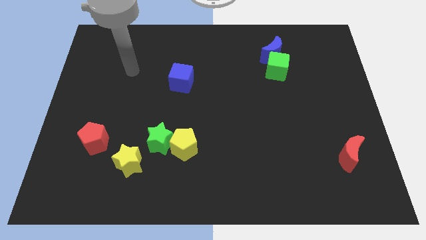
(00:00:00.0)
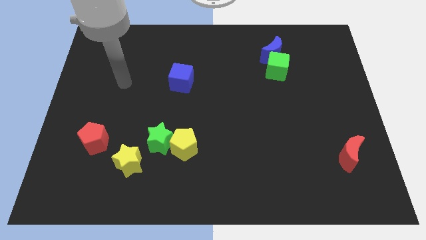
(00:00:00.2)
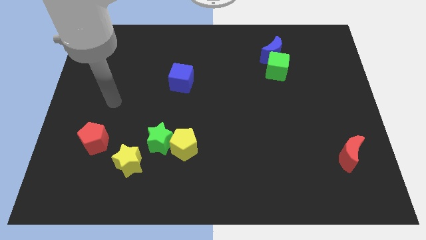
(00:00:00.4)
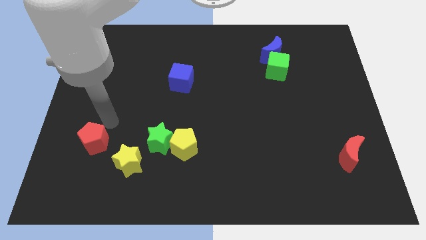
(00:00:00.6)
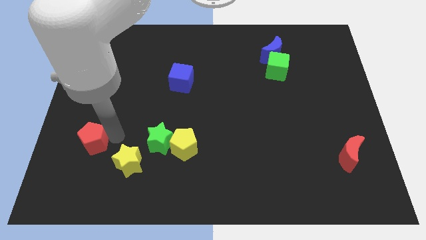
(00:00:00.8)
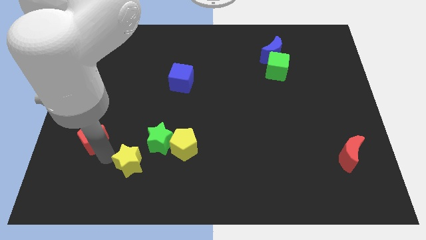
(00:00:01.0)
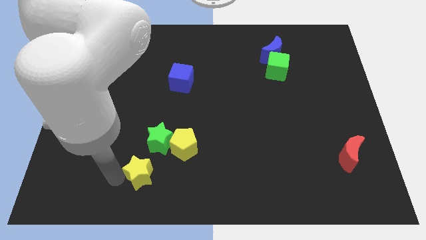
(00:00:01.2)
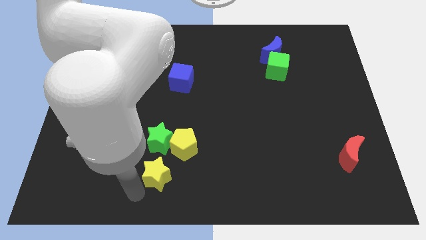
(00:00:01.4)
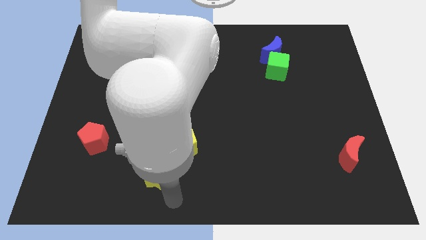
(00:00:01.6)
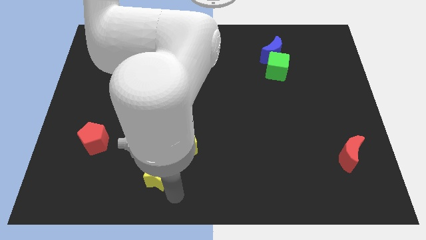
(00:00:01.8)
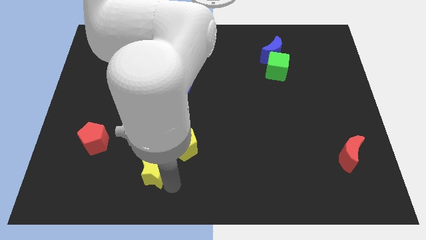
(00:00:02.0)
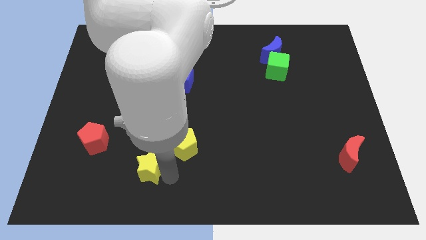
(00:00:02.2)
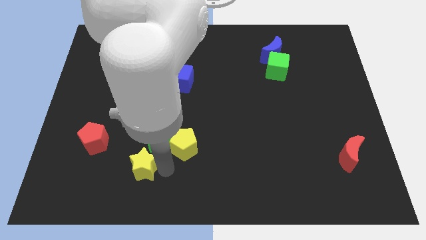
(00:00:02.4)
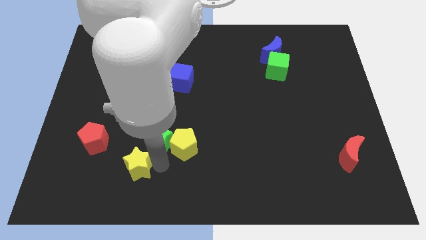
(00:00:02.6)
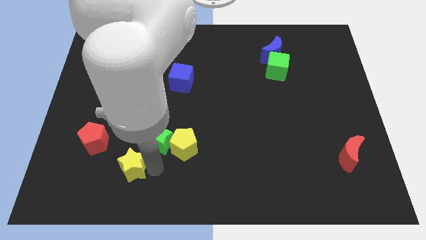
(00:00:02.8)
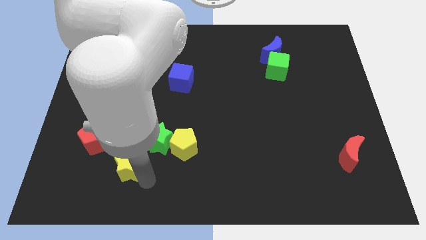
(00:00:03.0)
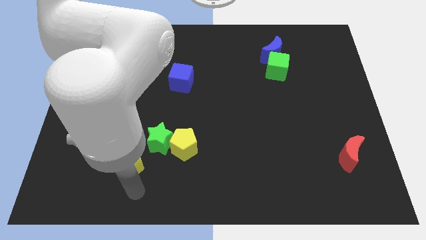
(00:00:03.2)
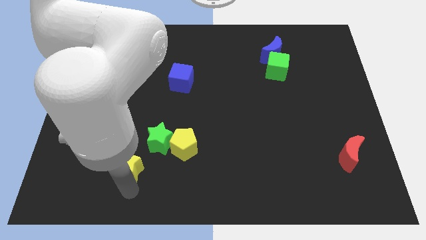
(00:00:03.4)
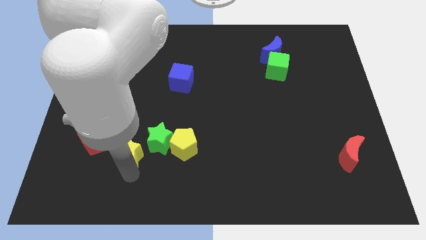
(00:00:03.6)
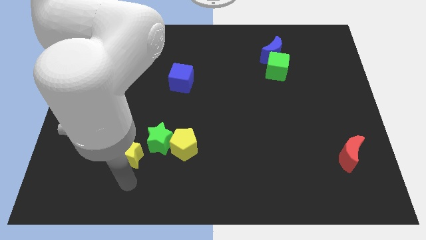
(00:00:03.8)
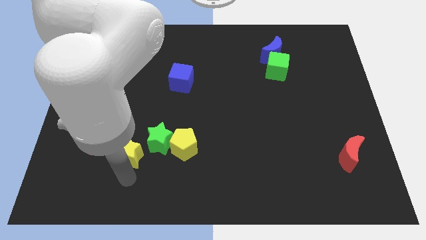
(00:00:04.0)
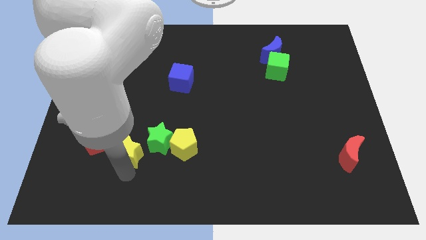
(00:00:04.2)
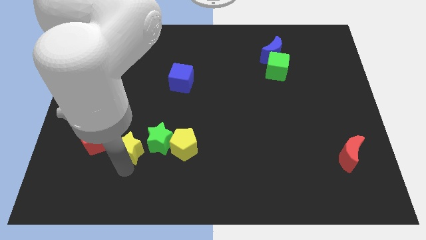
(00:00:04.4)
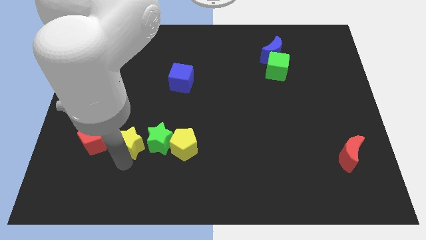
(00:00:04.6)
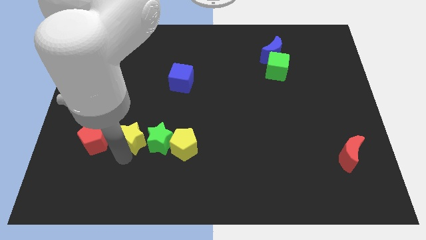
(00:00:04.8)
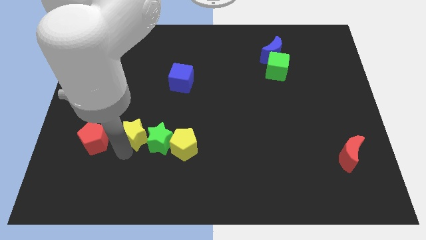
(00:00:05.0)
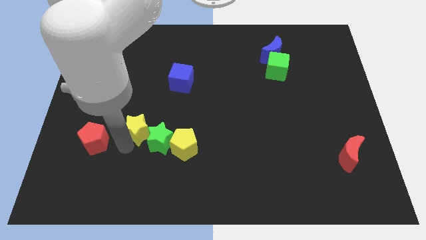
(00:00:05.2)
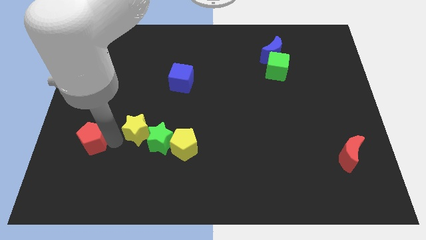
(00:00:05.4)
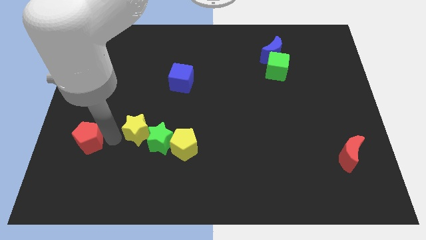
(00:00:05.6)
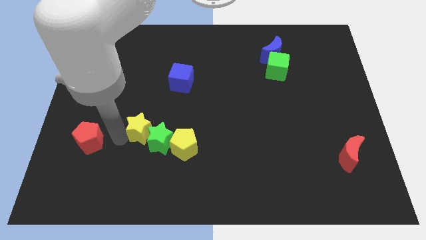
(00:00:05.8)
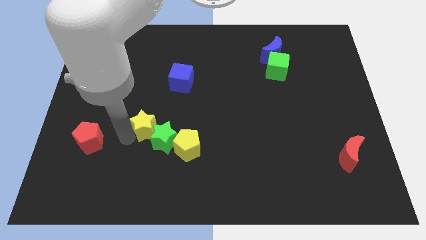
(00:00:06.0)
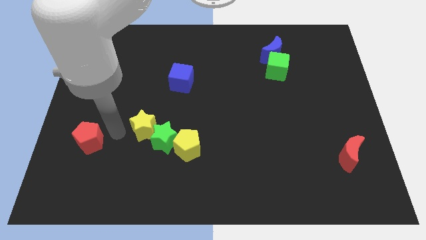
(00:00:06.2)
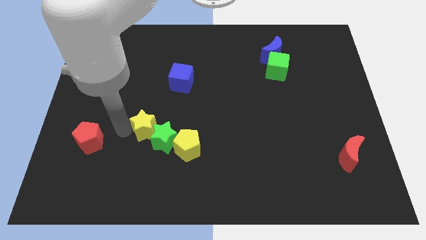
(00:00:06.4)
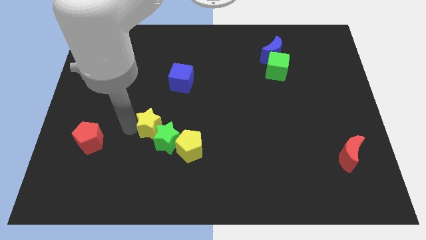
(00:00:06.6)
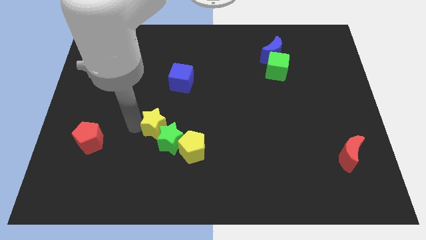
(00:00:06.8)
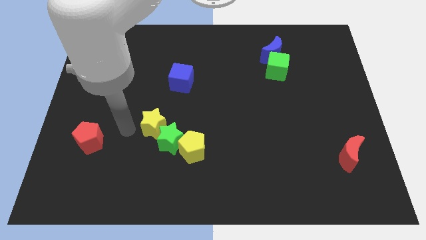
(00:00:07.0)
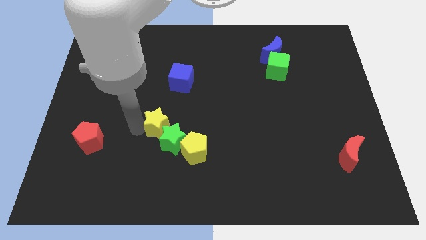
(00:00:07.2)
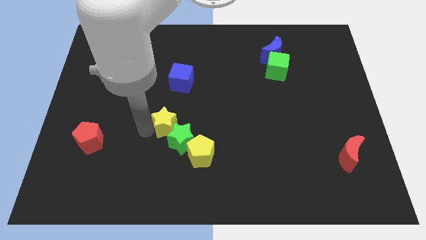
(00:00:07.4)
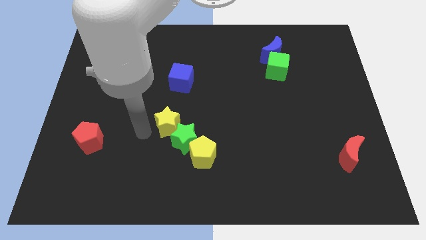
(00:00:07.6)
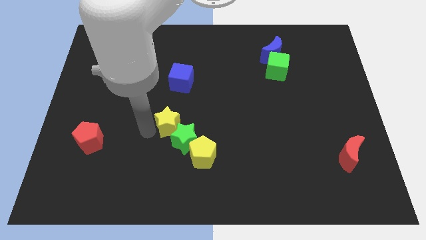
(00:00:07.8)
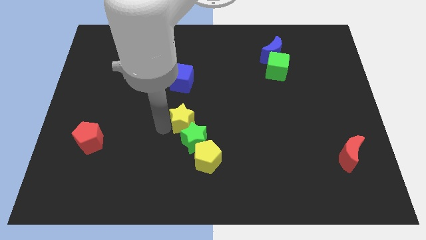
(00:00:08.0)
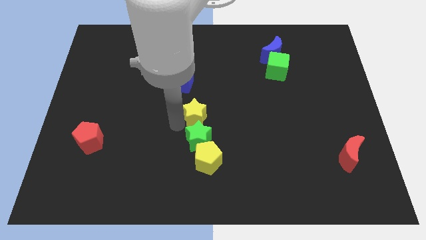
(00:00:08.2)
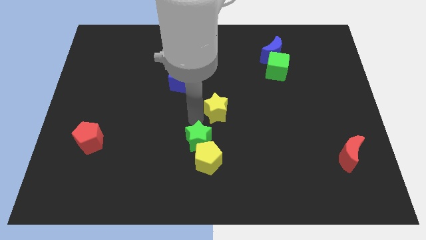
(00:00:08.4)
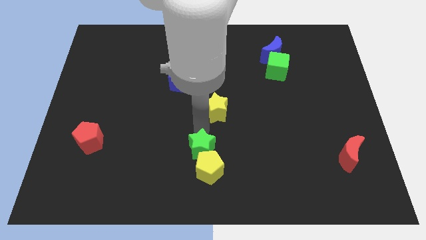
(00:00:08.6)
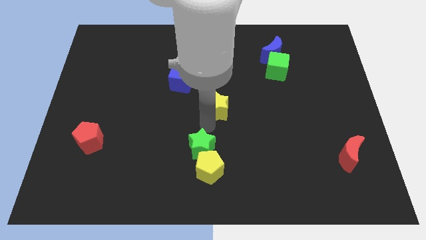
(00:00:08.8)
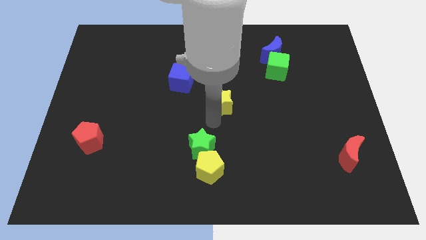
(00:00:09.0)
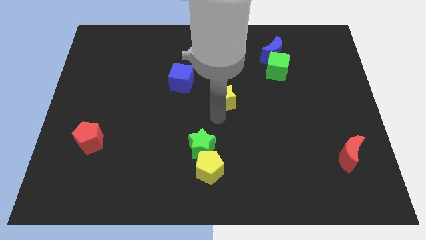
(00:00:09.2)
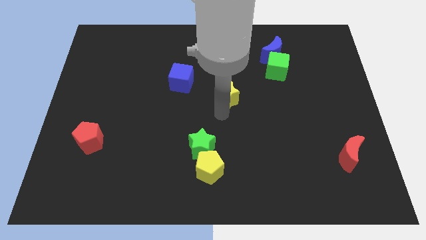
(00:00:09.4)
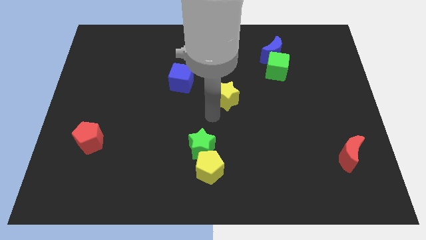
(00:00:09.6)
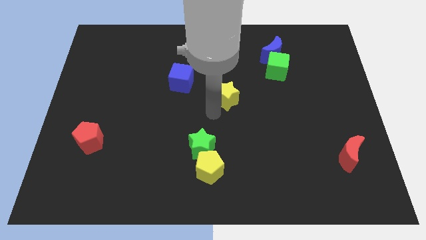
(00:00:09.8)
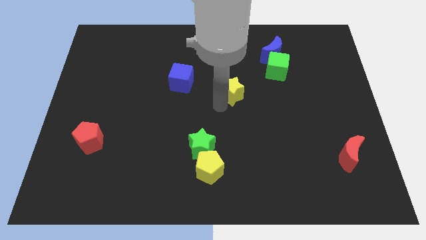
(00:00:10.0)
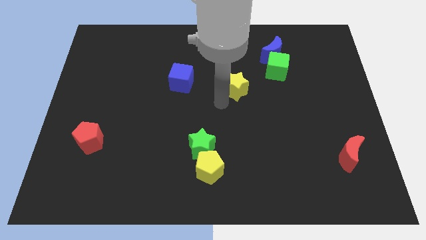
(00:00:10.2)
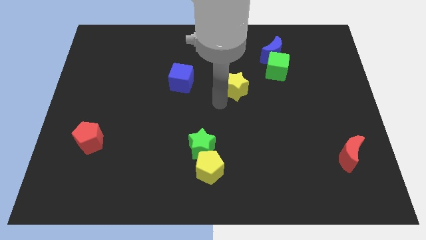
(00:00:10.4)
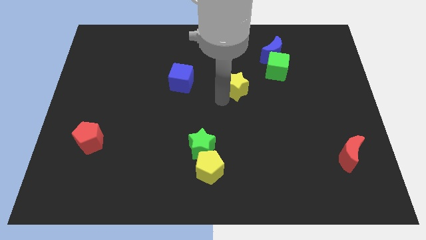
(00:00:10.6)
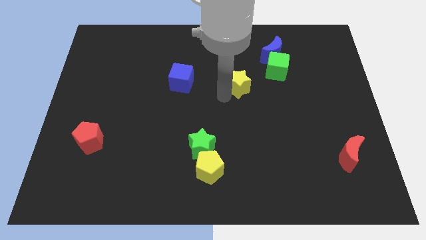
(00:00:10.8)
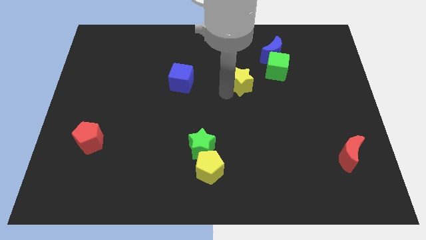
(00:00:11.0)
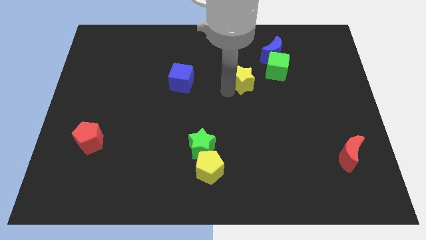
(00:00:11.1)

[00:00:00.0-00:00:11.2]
push the yellow star to the bottom left of the blue moon

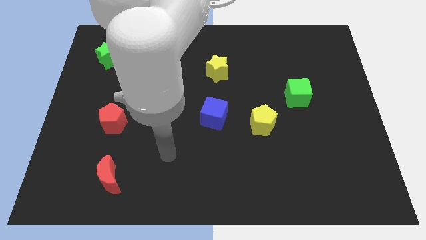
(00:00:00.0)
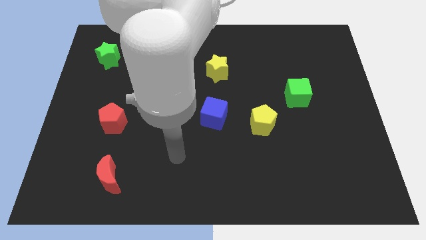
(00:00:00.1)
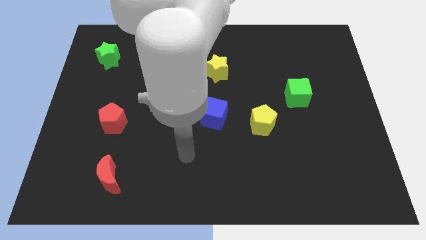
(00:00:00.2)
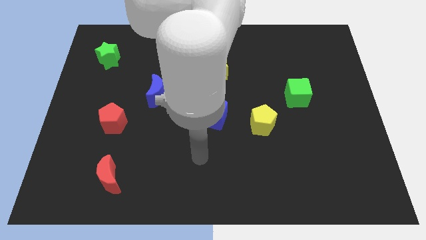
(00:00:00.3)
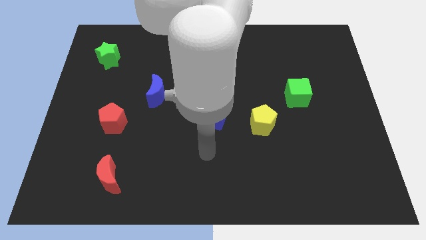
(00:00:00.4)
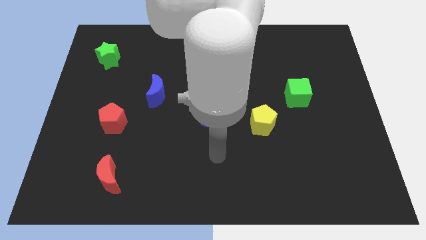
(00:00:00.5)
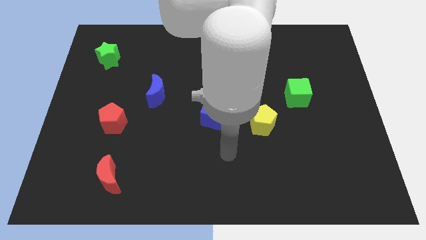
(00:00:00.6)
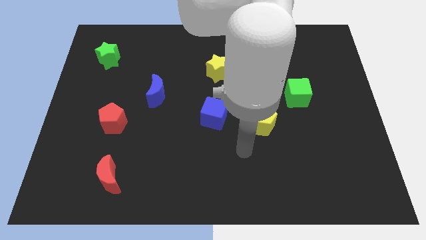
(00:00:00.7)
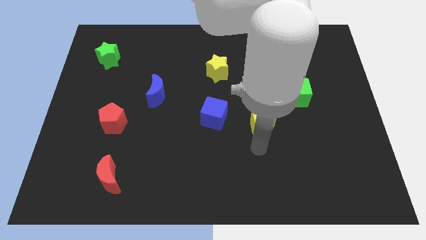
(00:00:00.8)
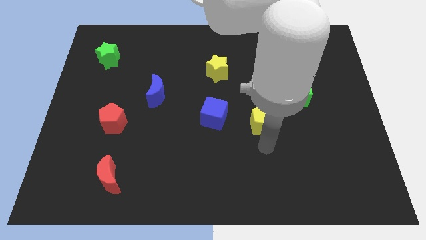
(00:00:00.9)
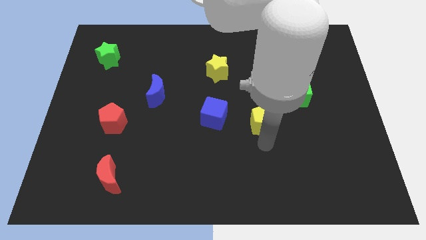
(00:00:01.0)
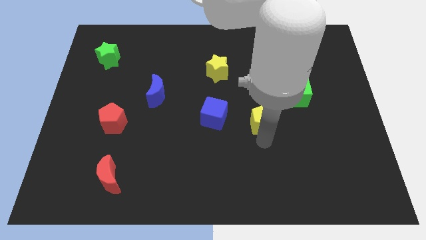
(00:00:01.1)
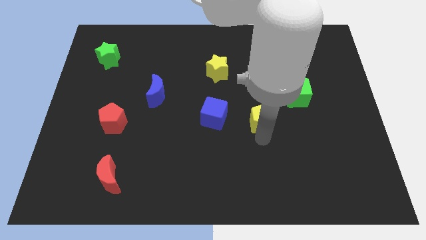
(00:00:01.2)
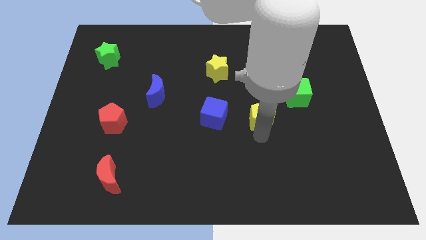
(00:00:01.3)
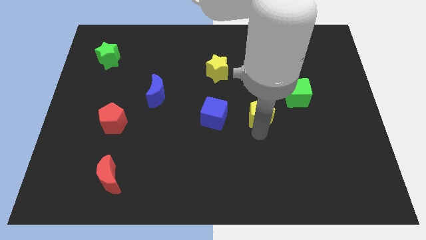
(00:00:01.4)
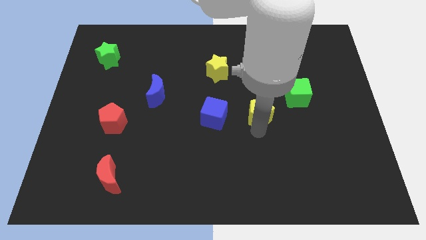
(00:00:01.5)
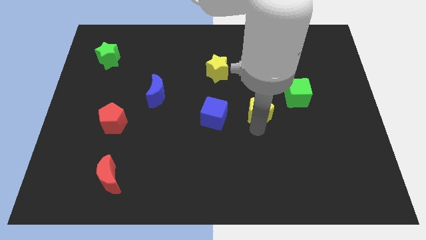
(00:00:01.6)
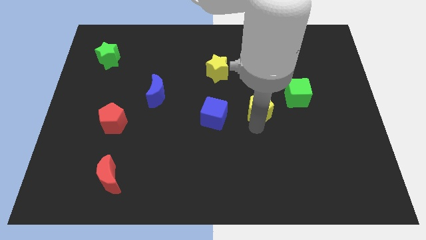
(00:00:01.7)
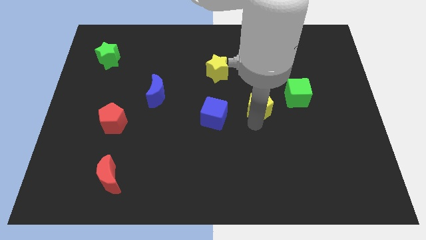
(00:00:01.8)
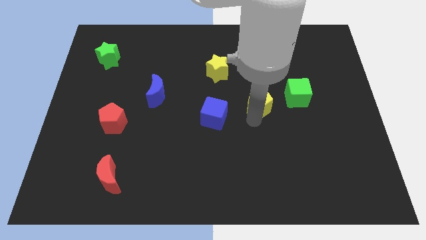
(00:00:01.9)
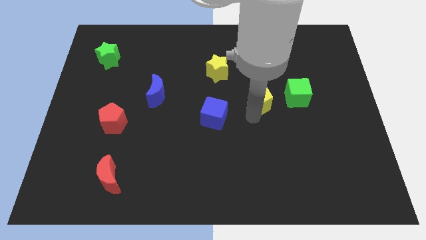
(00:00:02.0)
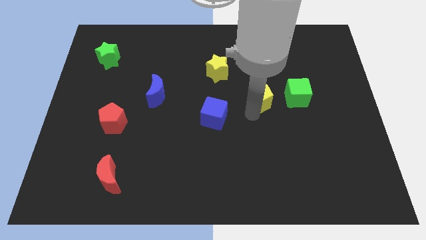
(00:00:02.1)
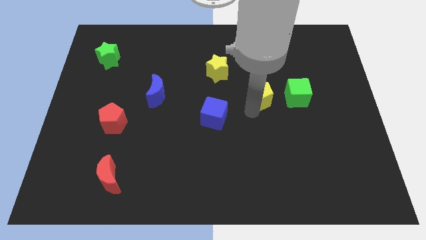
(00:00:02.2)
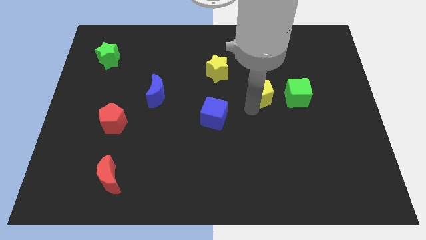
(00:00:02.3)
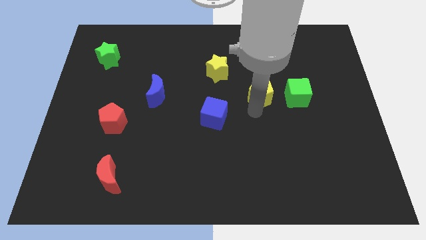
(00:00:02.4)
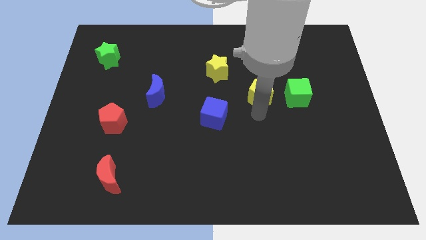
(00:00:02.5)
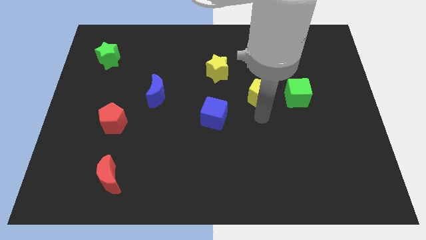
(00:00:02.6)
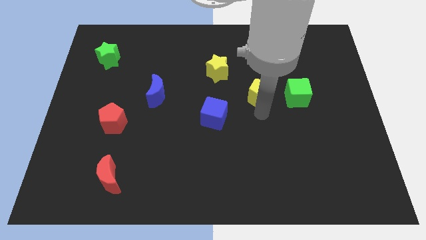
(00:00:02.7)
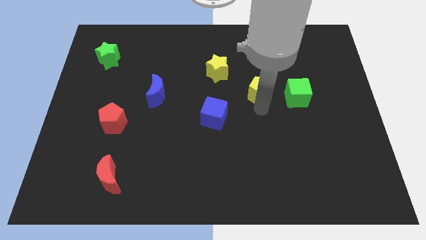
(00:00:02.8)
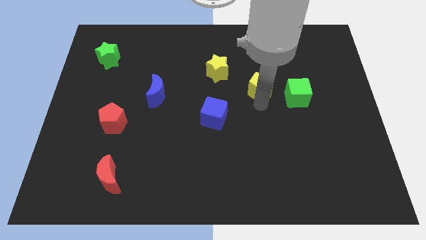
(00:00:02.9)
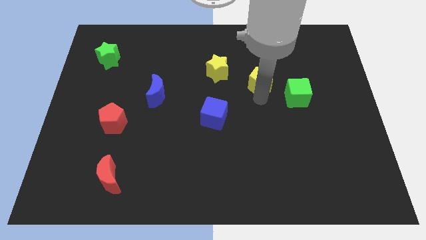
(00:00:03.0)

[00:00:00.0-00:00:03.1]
move the yellow pentagon to the right of the yellow star
